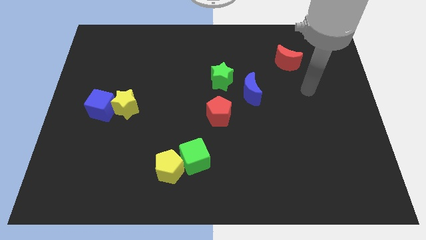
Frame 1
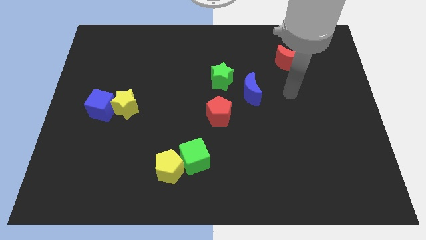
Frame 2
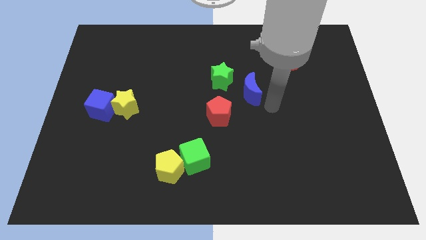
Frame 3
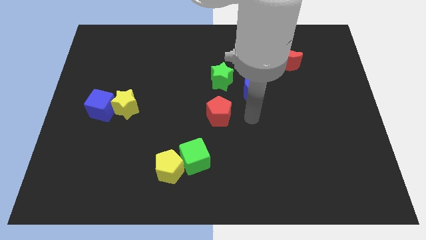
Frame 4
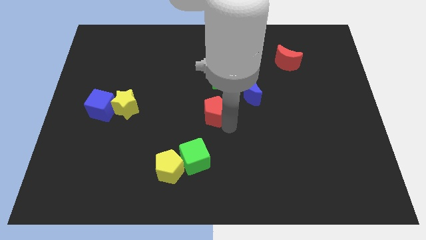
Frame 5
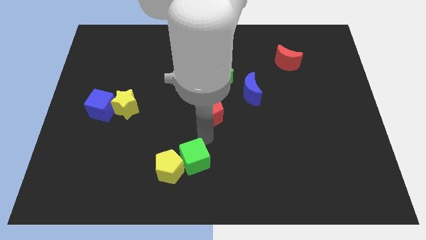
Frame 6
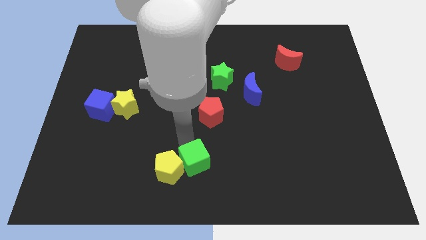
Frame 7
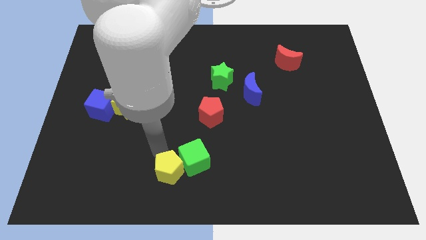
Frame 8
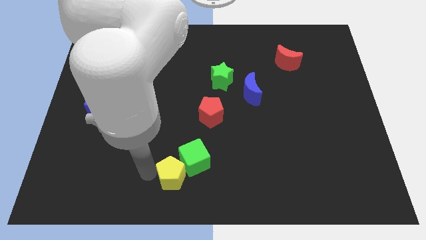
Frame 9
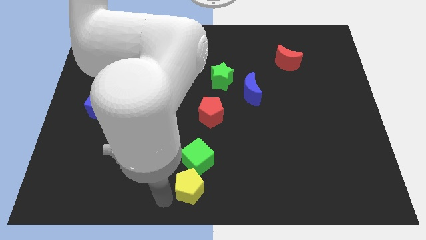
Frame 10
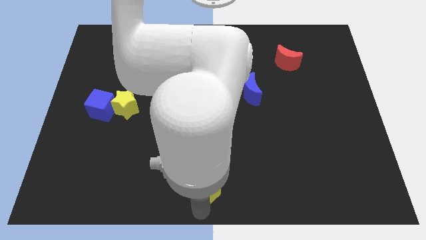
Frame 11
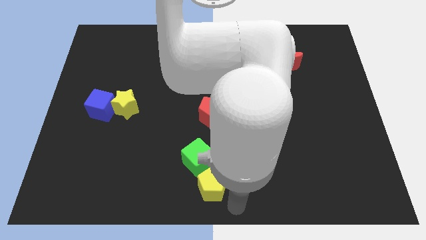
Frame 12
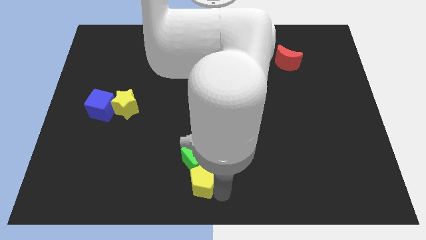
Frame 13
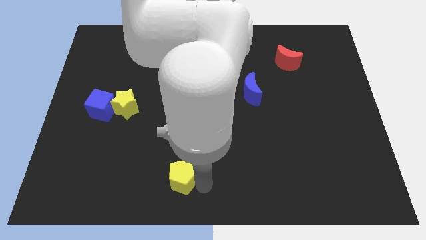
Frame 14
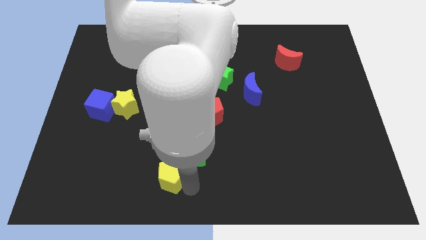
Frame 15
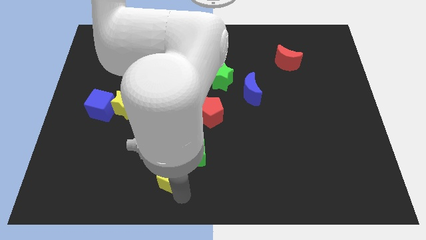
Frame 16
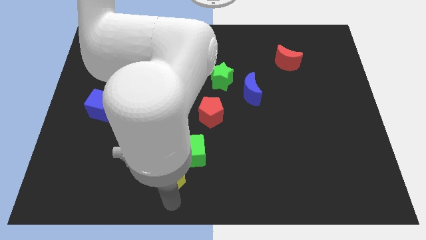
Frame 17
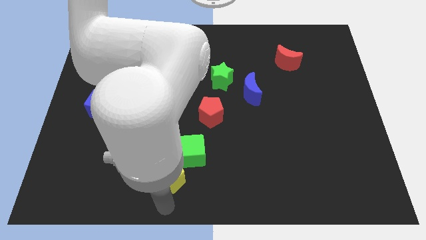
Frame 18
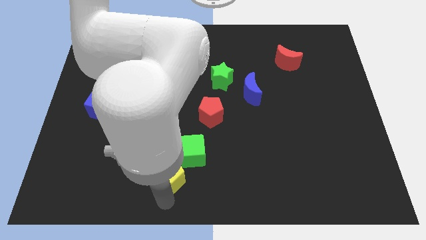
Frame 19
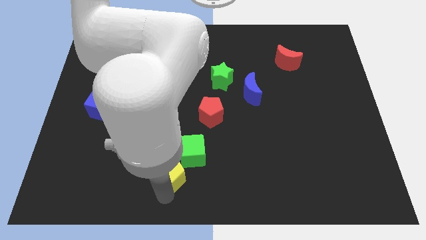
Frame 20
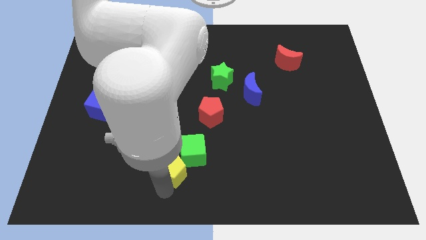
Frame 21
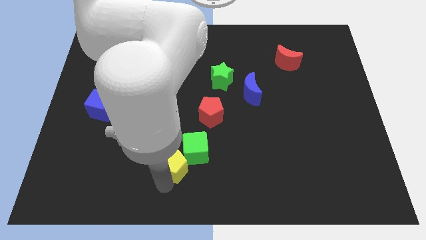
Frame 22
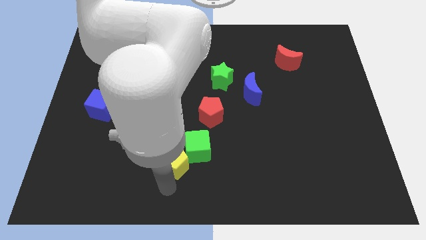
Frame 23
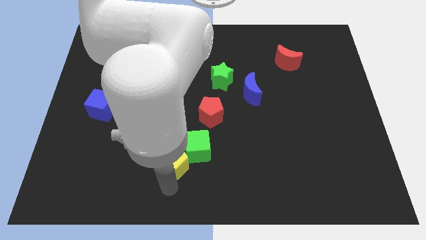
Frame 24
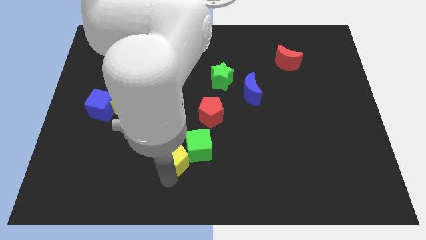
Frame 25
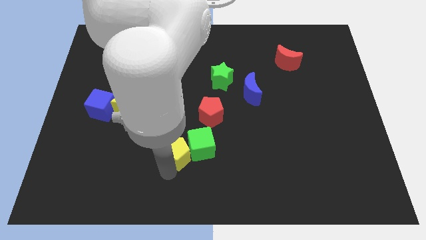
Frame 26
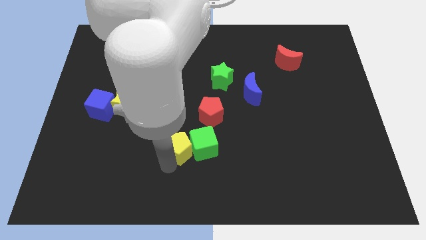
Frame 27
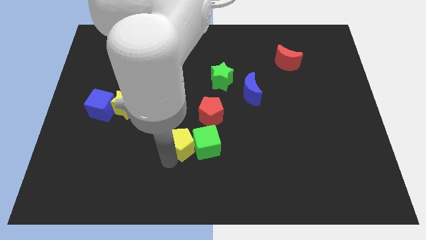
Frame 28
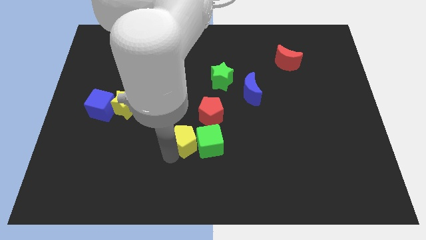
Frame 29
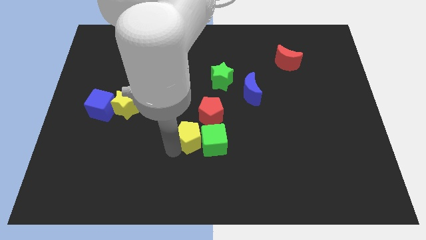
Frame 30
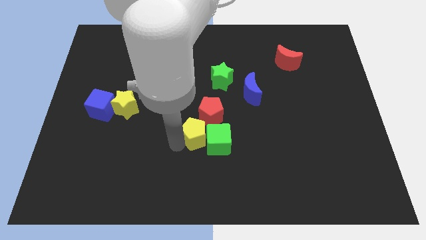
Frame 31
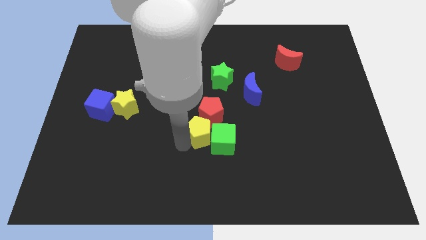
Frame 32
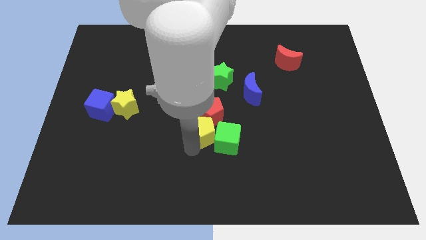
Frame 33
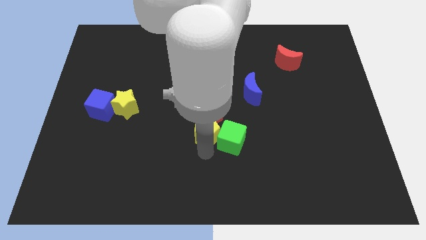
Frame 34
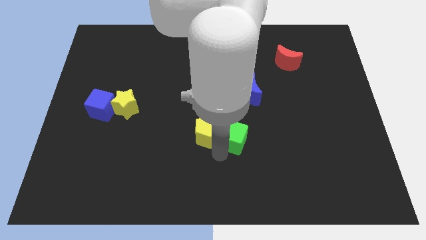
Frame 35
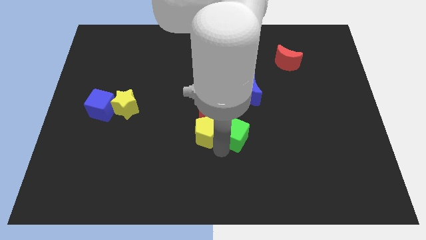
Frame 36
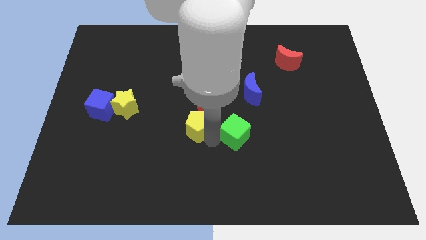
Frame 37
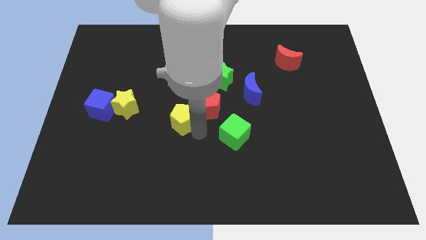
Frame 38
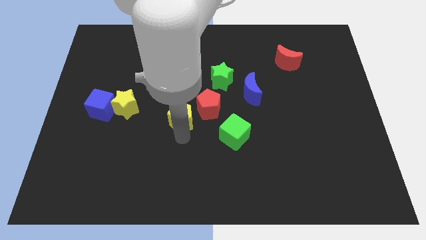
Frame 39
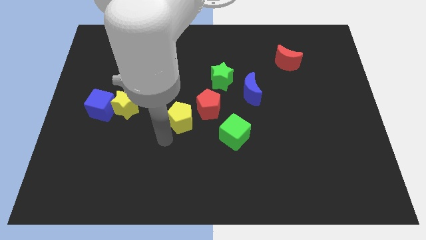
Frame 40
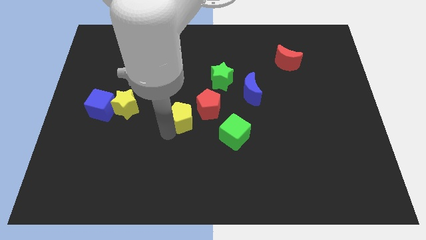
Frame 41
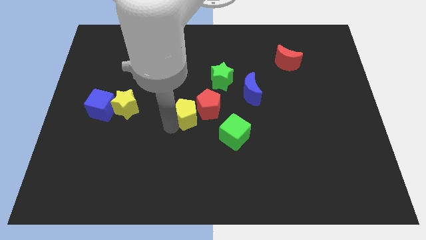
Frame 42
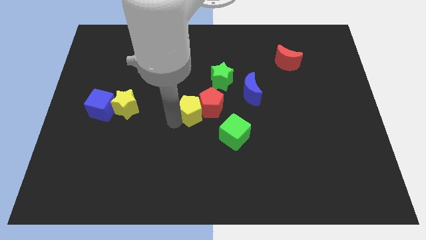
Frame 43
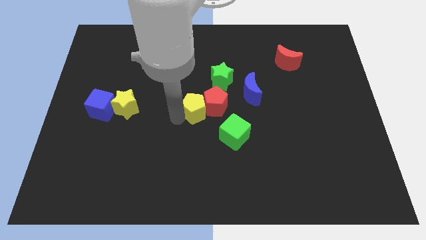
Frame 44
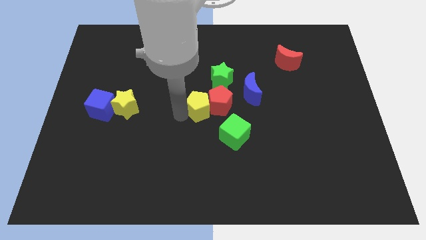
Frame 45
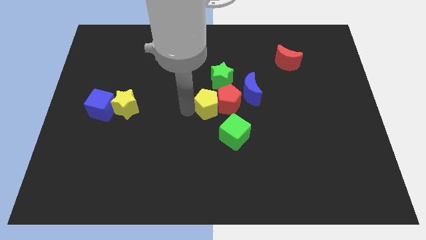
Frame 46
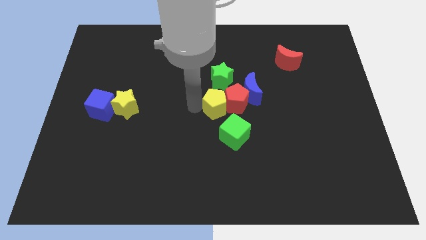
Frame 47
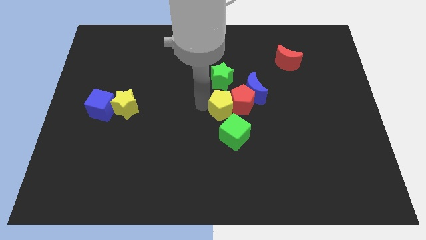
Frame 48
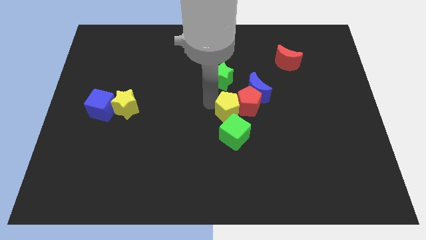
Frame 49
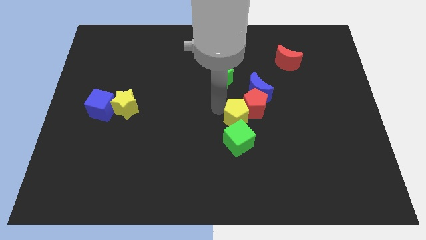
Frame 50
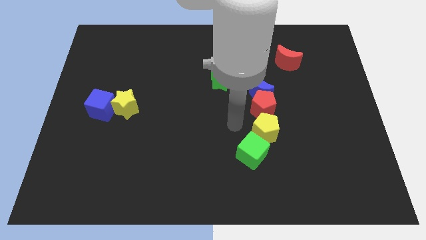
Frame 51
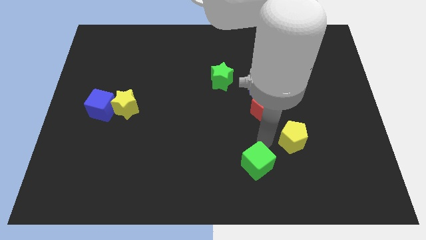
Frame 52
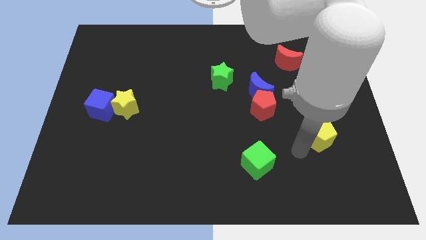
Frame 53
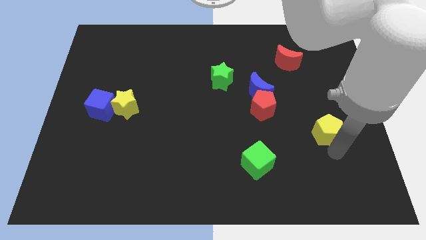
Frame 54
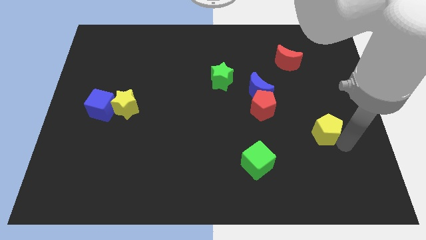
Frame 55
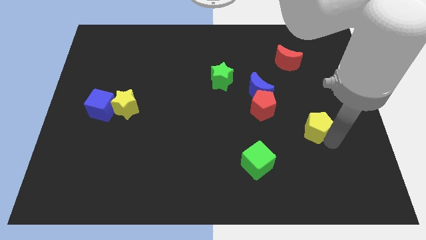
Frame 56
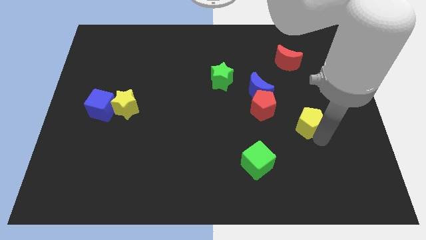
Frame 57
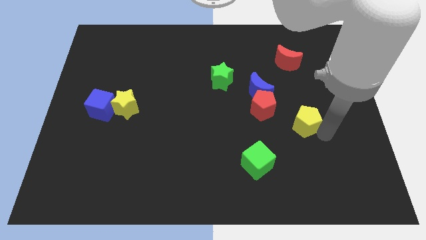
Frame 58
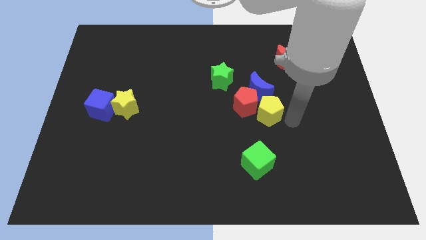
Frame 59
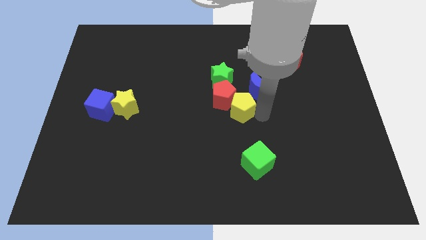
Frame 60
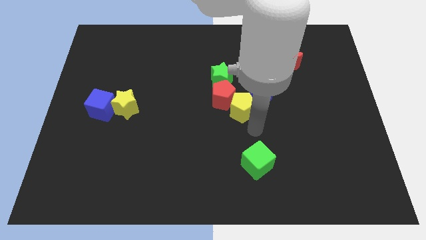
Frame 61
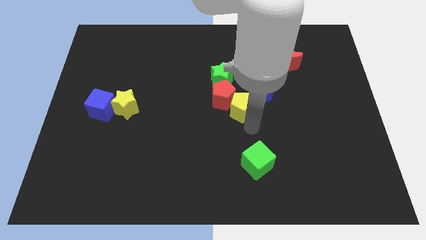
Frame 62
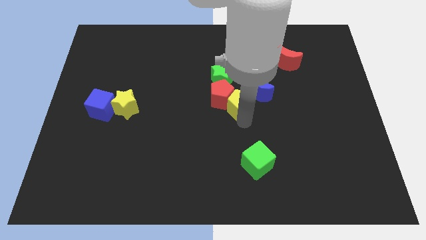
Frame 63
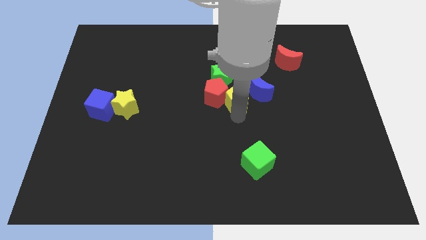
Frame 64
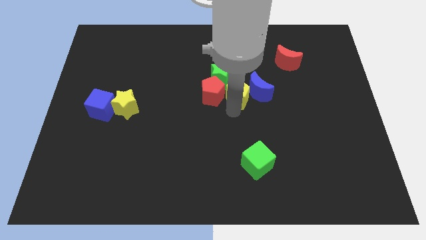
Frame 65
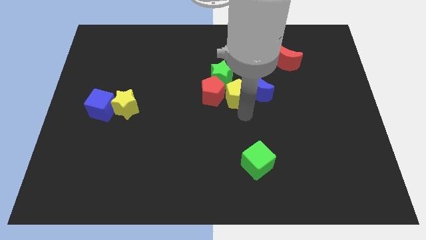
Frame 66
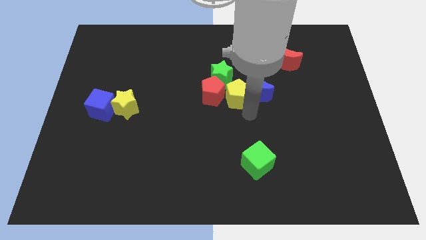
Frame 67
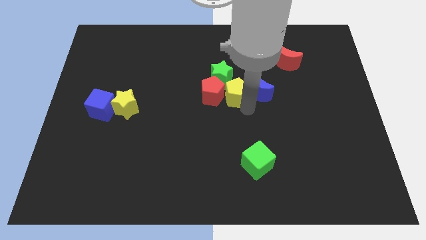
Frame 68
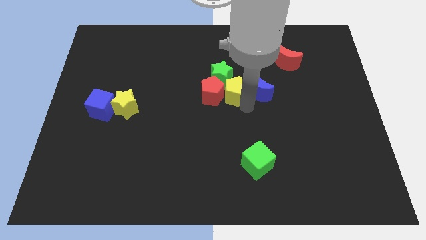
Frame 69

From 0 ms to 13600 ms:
put the yellow pentagon close to the green star

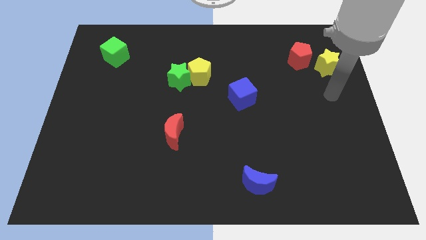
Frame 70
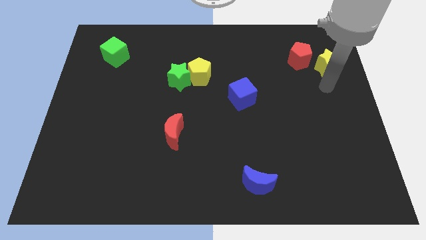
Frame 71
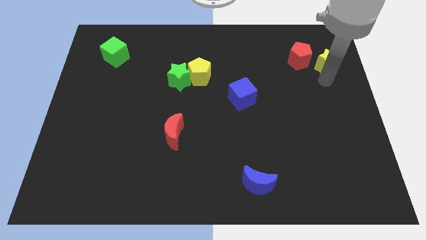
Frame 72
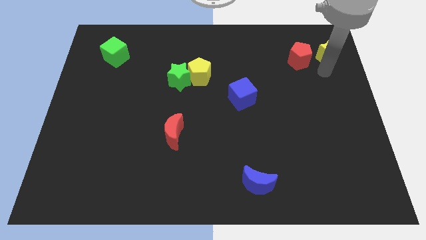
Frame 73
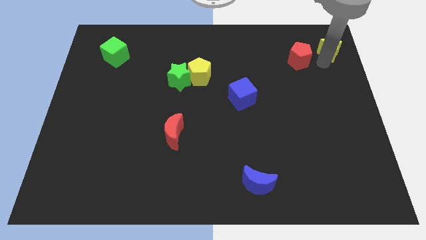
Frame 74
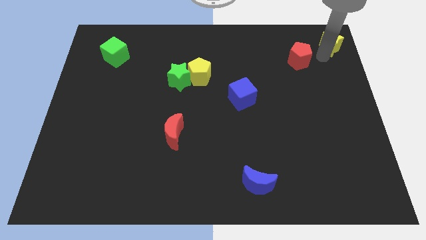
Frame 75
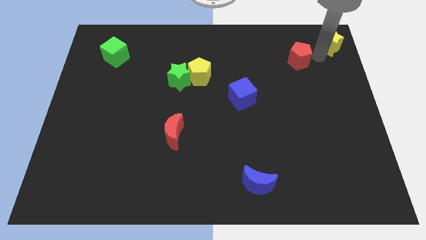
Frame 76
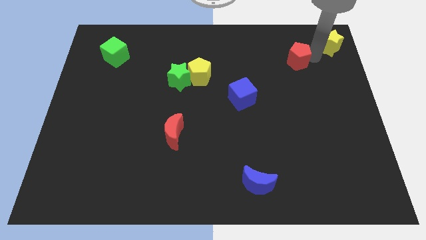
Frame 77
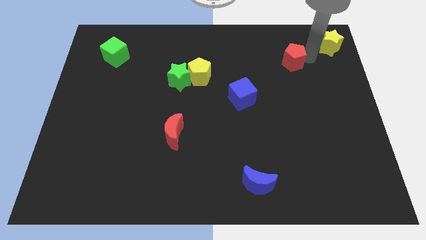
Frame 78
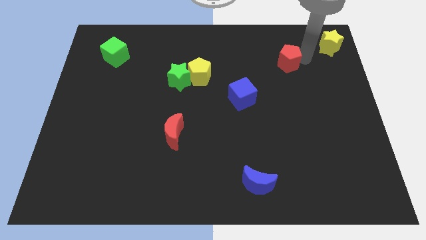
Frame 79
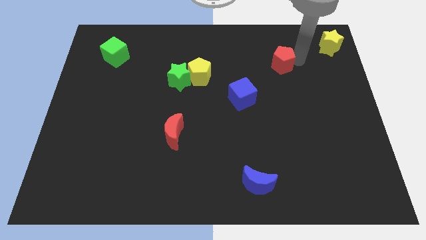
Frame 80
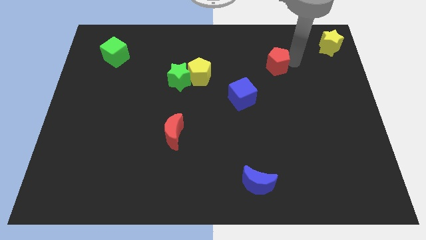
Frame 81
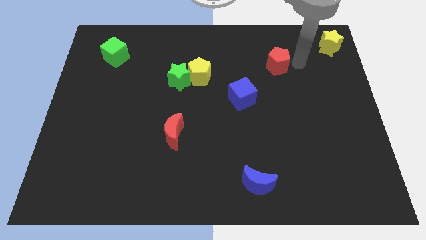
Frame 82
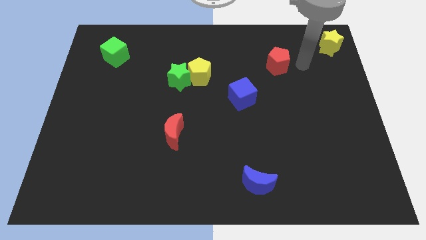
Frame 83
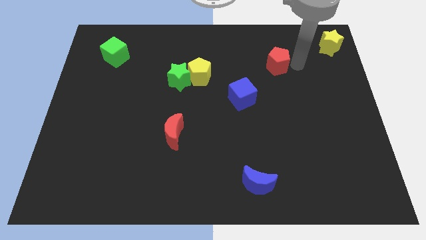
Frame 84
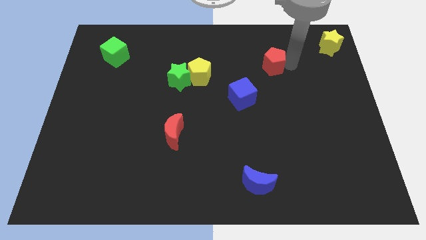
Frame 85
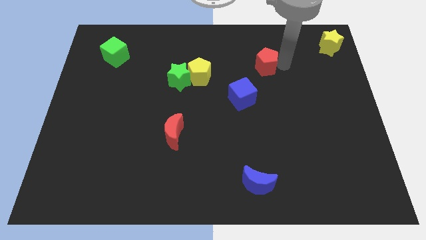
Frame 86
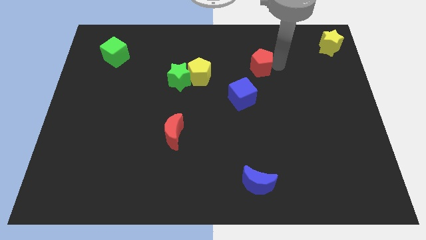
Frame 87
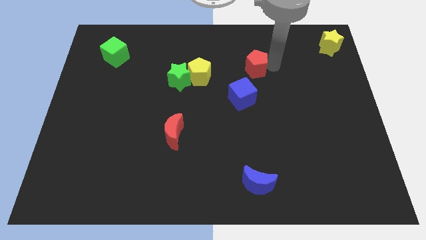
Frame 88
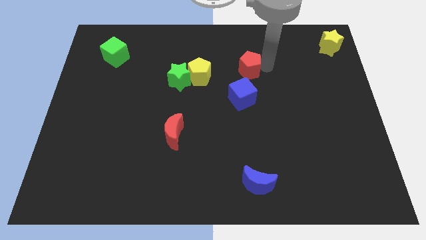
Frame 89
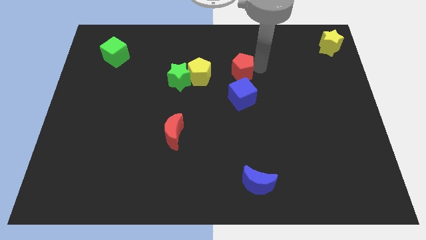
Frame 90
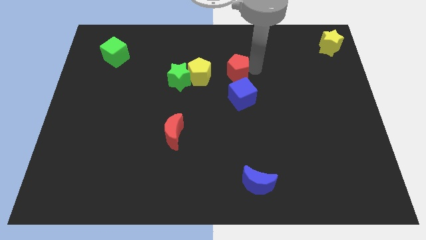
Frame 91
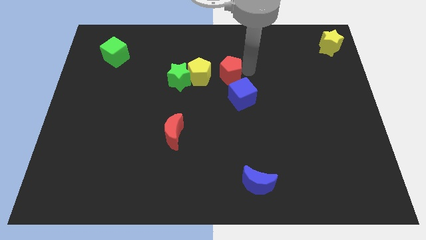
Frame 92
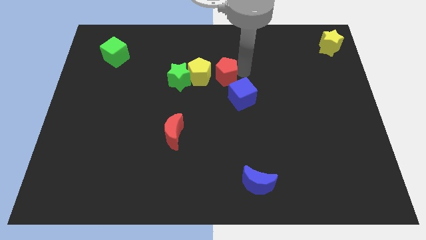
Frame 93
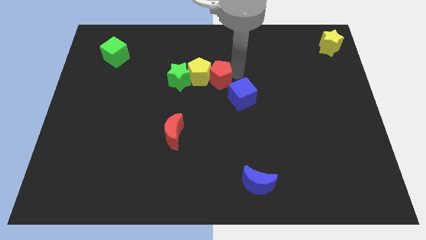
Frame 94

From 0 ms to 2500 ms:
move the red pentagon next to the yellow pentagon
